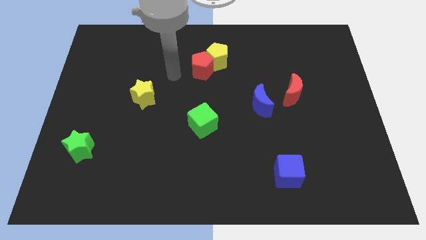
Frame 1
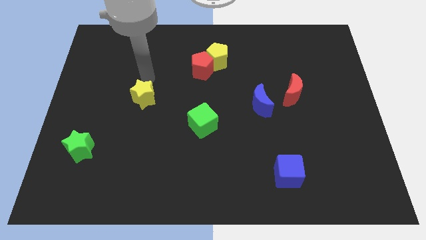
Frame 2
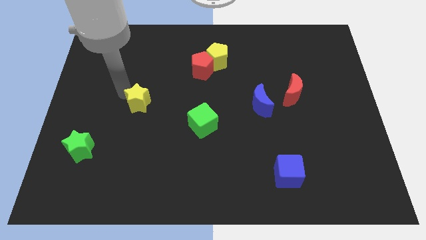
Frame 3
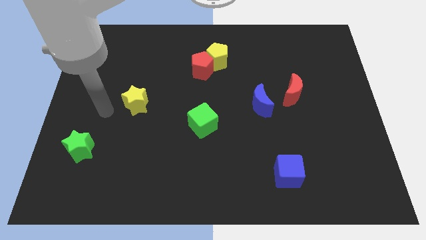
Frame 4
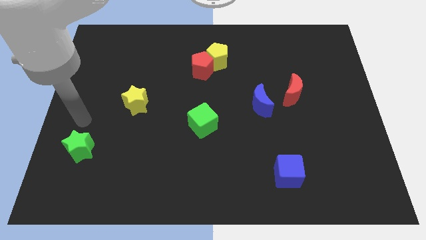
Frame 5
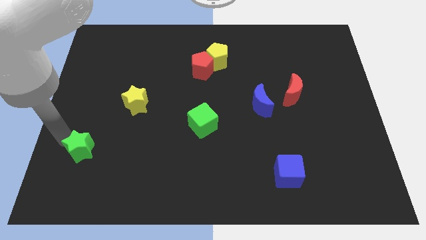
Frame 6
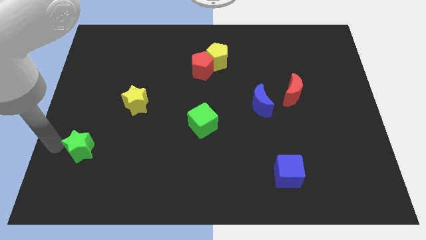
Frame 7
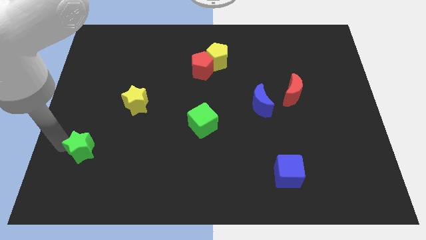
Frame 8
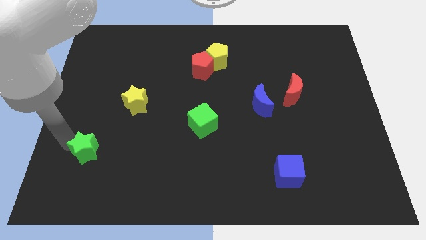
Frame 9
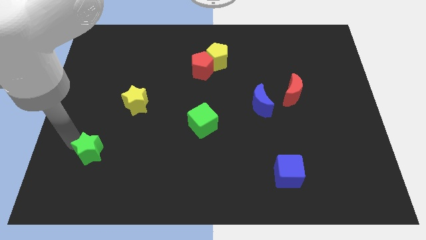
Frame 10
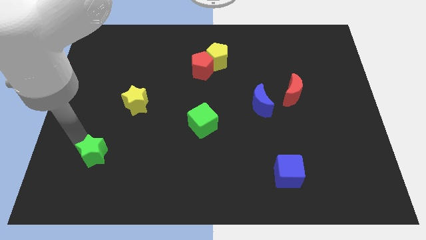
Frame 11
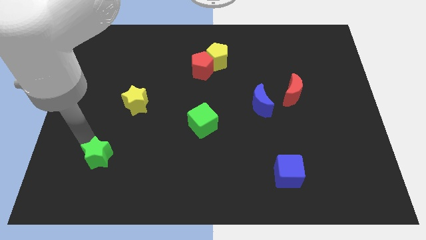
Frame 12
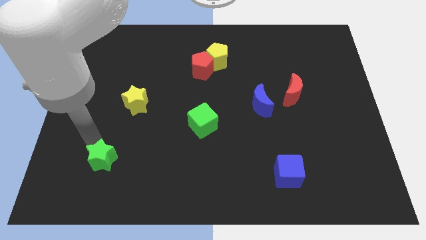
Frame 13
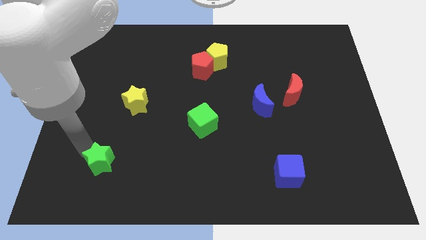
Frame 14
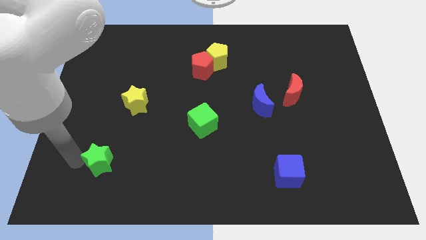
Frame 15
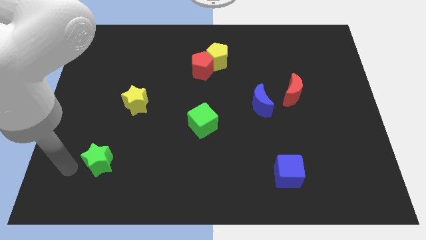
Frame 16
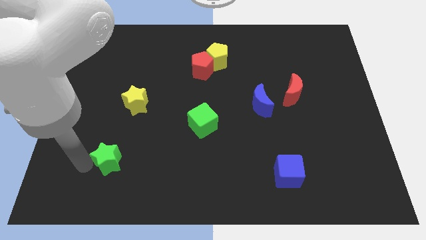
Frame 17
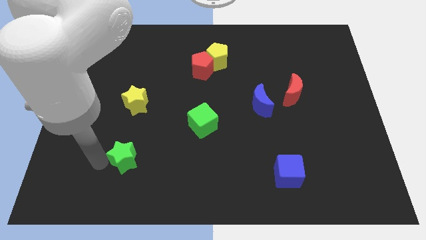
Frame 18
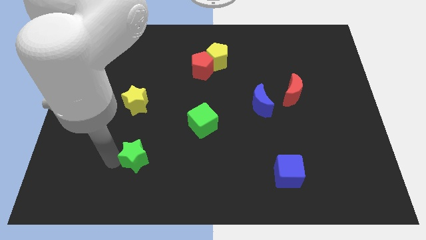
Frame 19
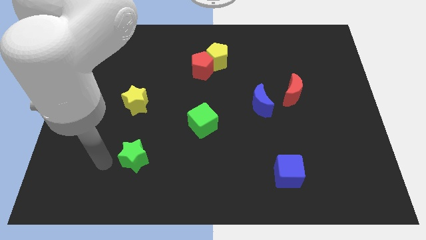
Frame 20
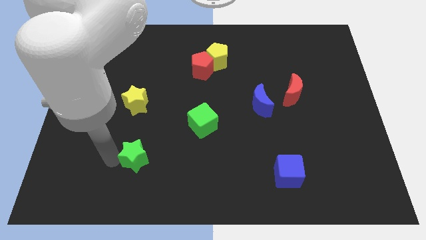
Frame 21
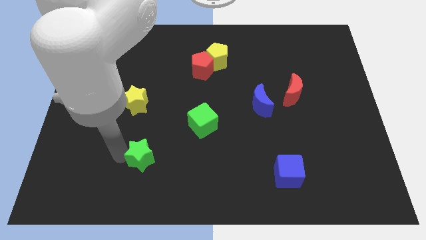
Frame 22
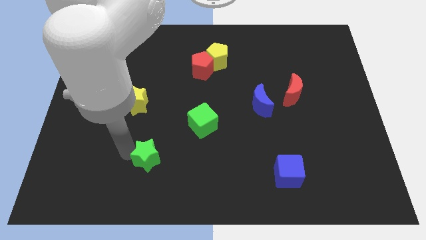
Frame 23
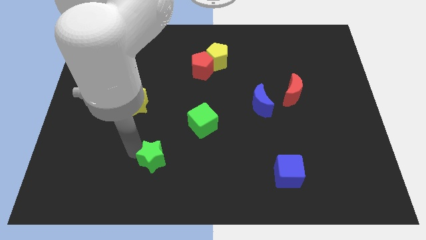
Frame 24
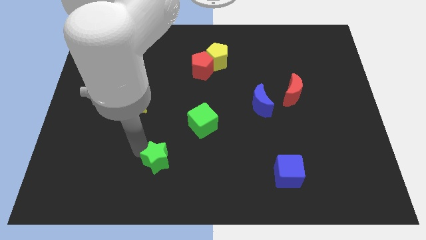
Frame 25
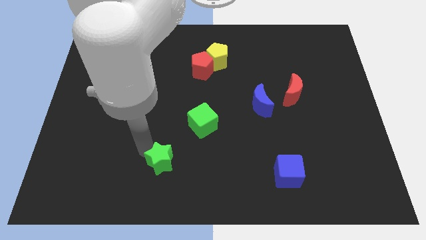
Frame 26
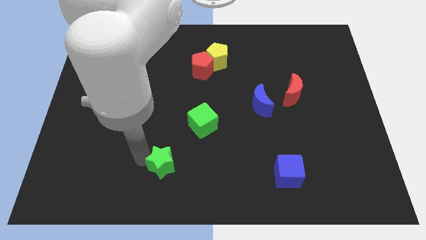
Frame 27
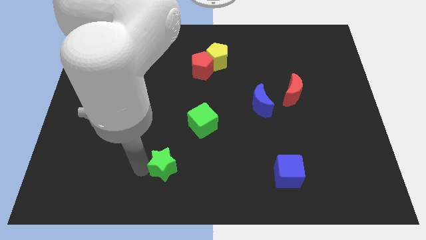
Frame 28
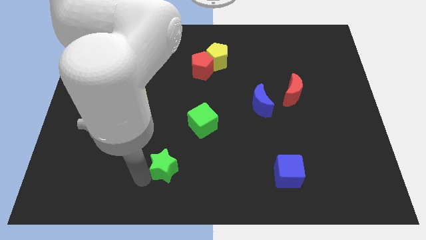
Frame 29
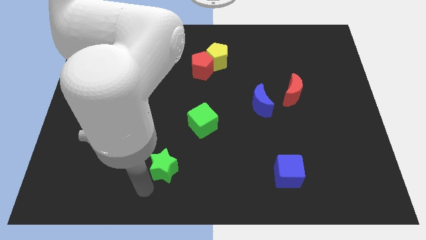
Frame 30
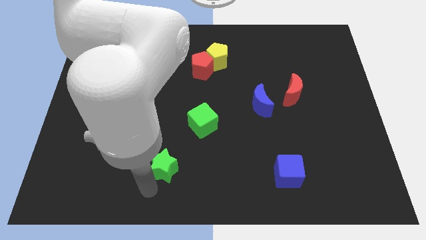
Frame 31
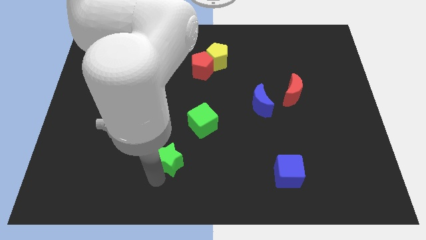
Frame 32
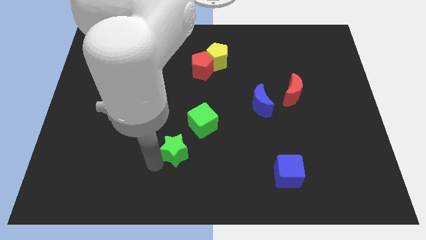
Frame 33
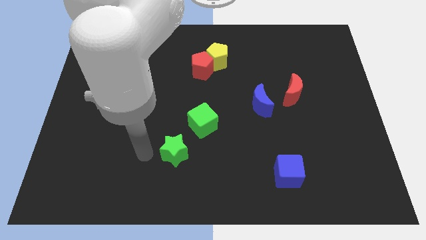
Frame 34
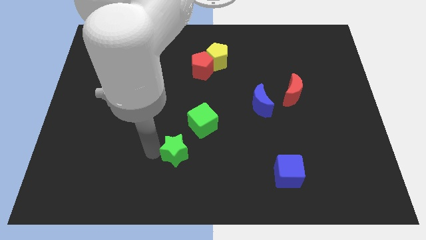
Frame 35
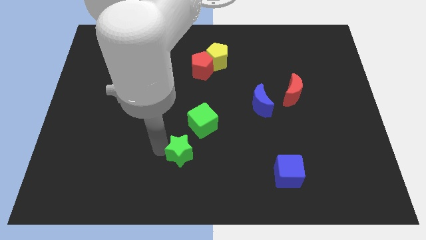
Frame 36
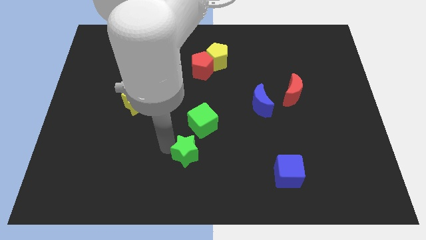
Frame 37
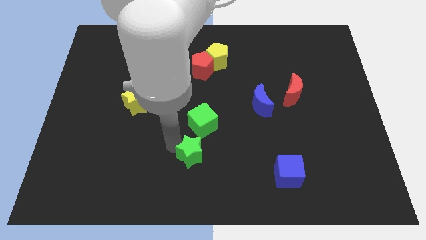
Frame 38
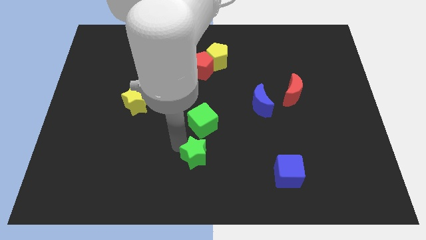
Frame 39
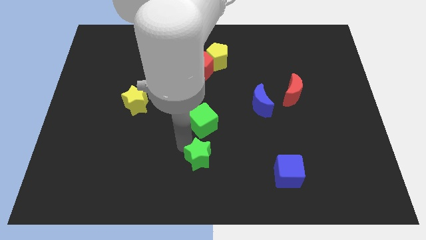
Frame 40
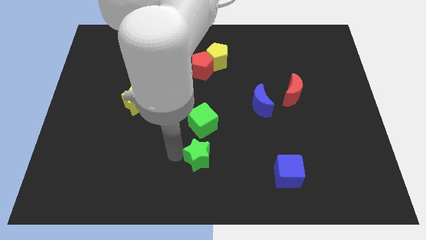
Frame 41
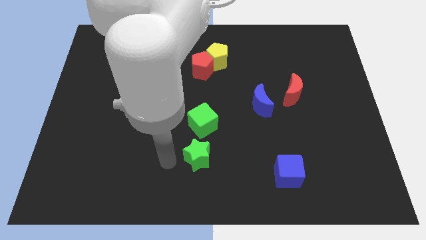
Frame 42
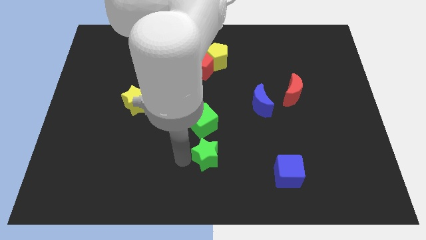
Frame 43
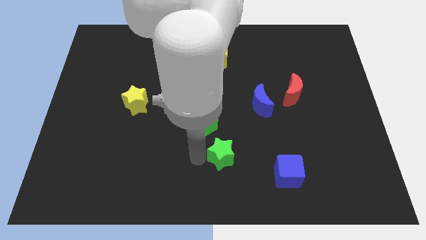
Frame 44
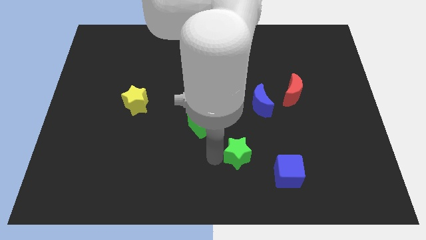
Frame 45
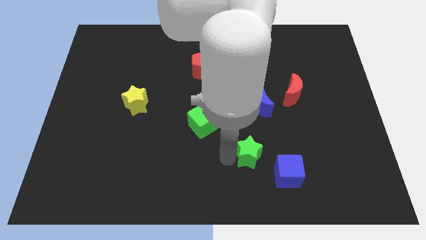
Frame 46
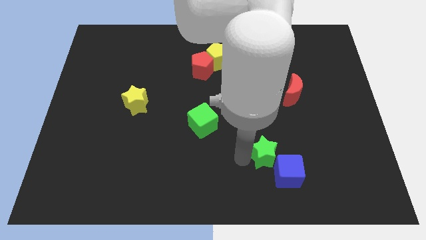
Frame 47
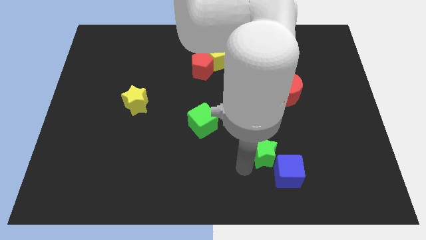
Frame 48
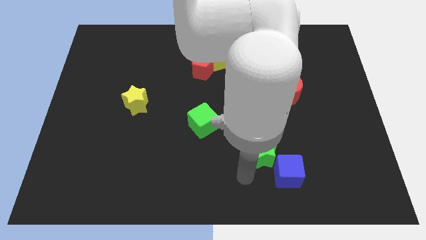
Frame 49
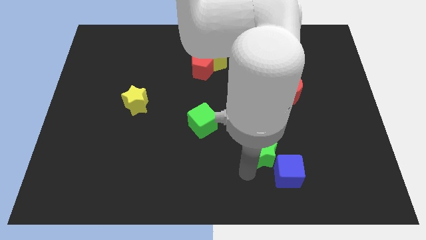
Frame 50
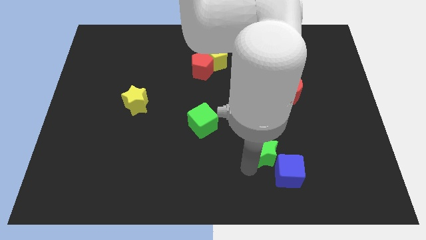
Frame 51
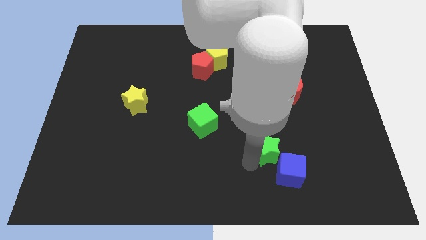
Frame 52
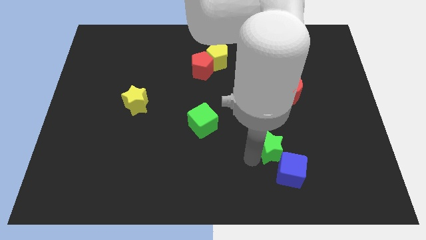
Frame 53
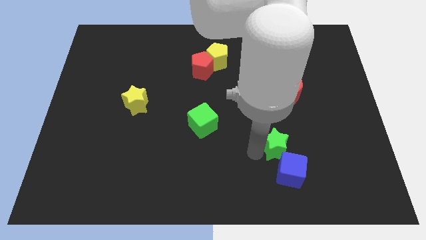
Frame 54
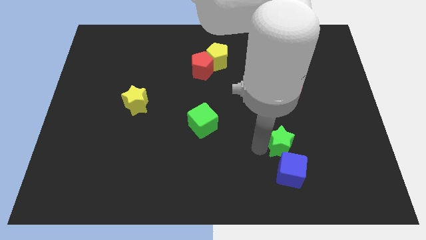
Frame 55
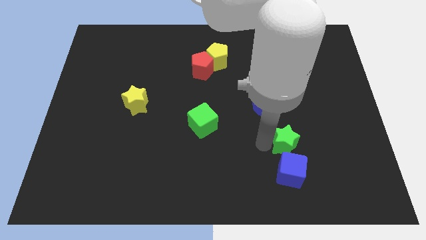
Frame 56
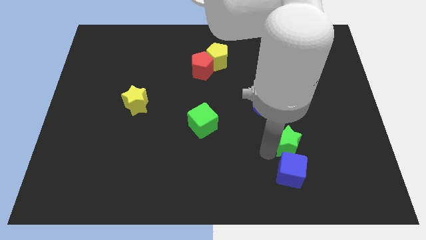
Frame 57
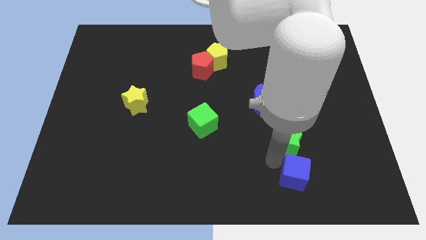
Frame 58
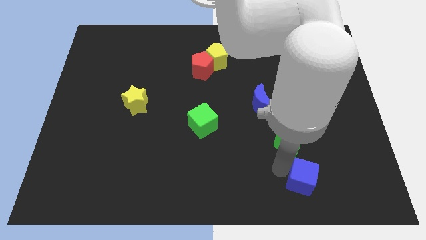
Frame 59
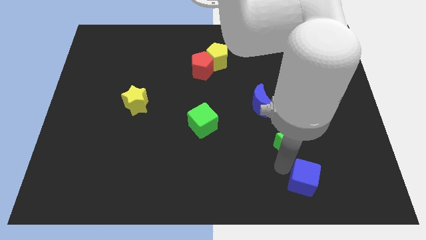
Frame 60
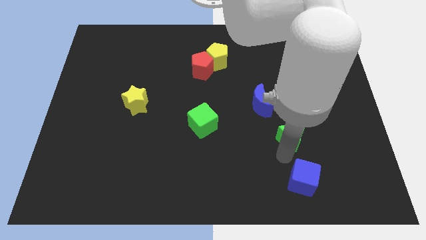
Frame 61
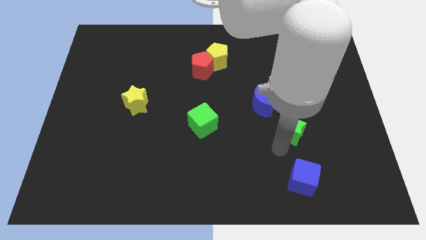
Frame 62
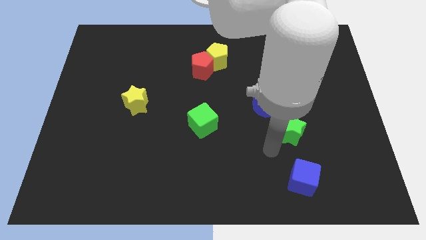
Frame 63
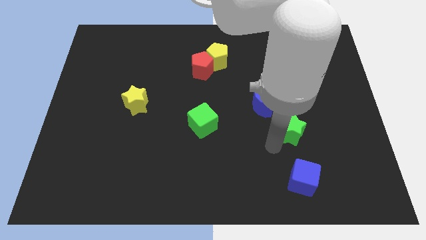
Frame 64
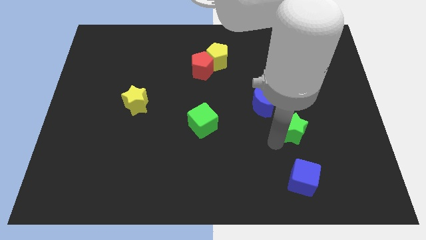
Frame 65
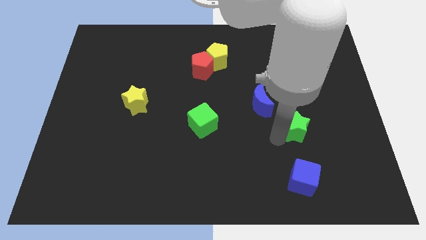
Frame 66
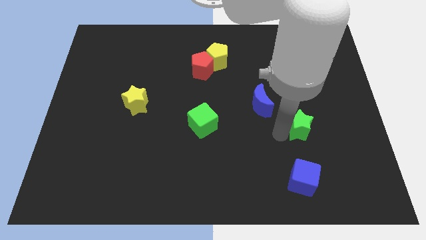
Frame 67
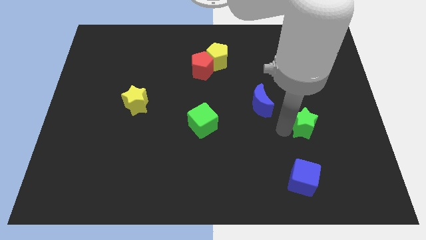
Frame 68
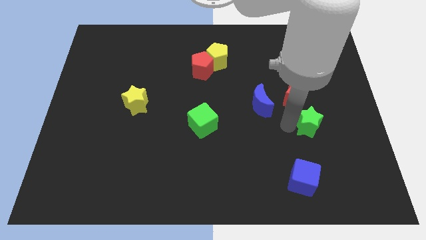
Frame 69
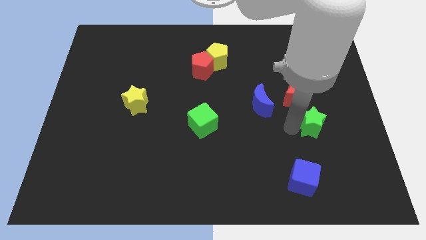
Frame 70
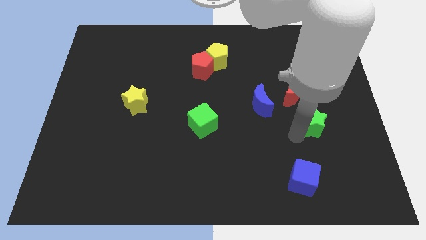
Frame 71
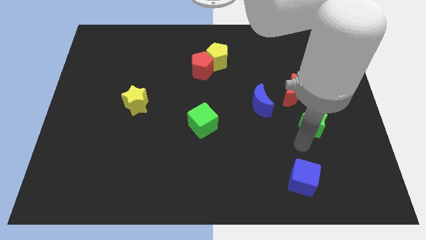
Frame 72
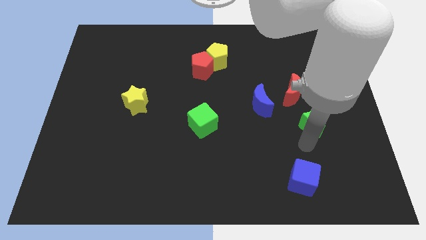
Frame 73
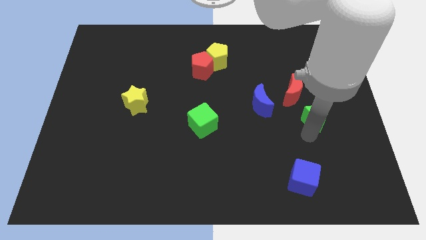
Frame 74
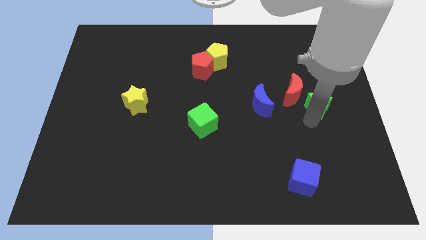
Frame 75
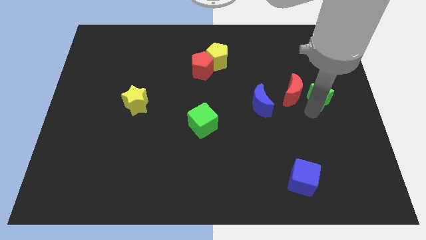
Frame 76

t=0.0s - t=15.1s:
move the green star to the right side of the board
